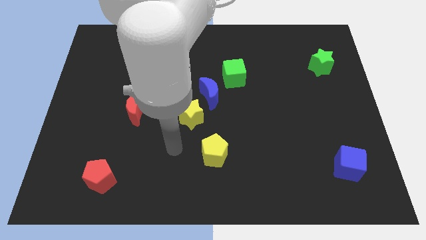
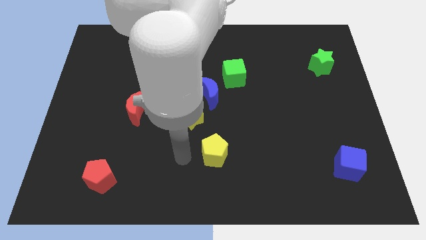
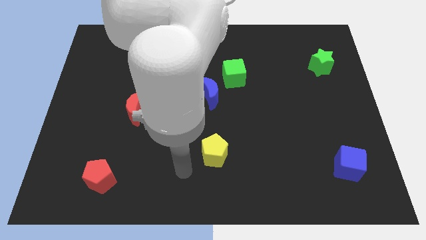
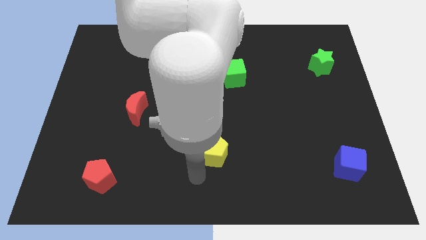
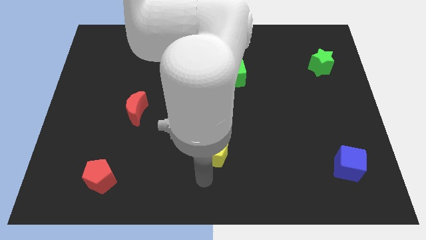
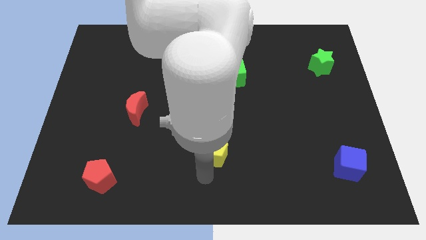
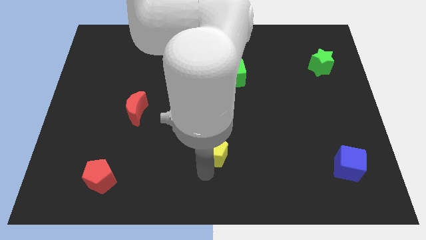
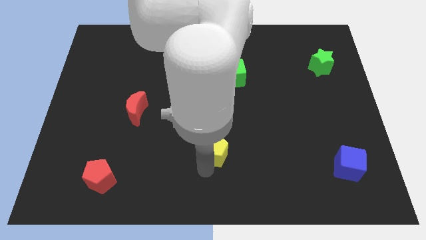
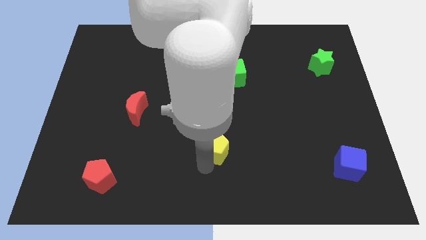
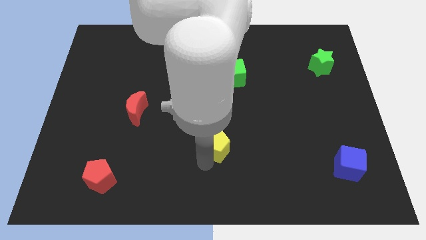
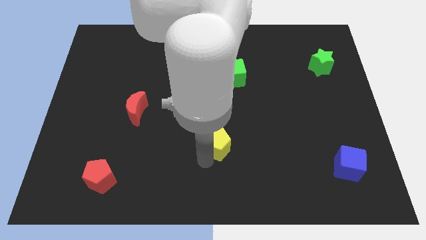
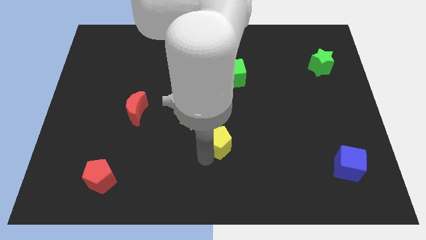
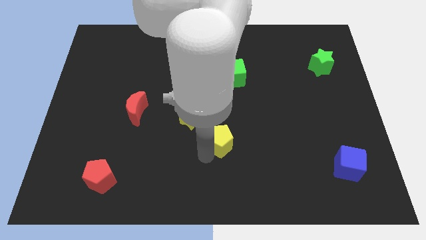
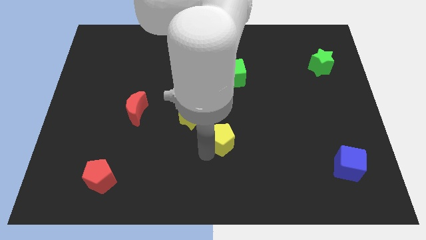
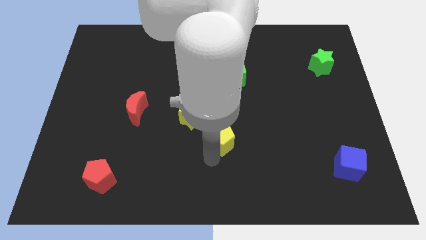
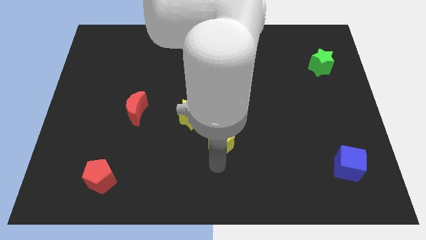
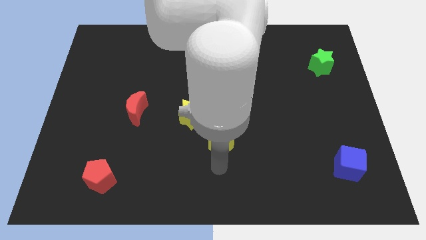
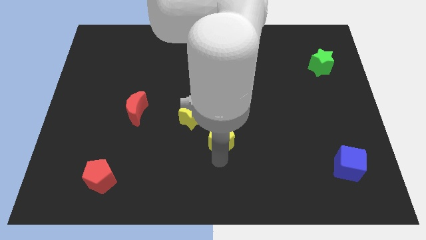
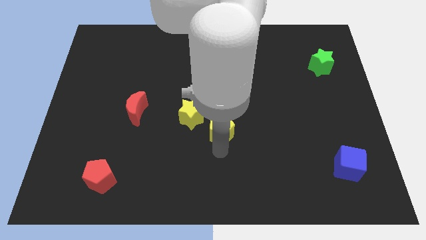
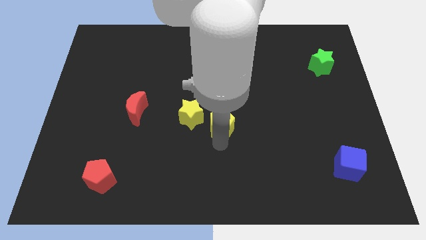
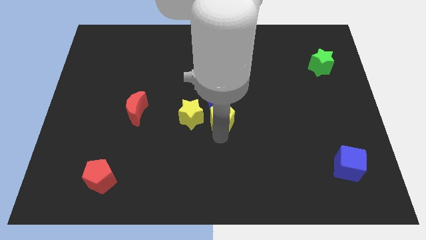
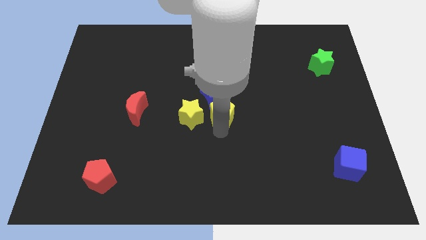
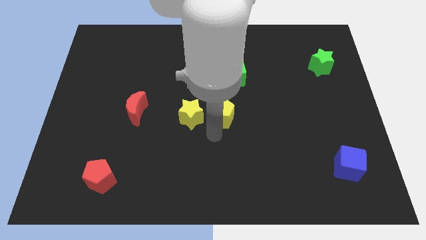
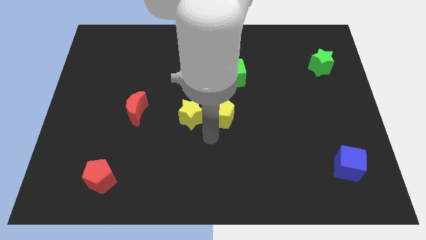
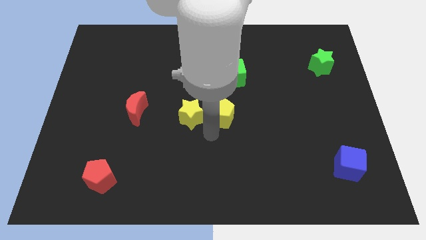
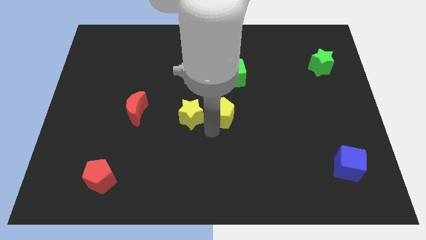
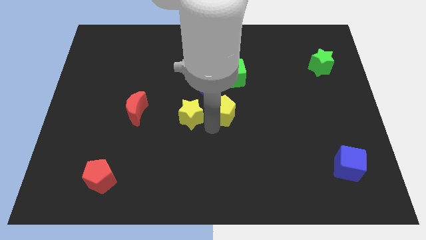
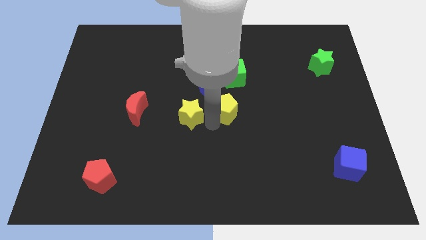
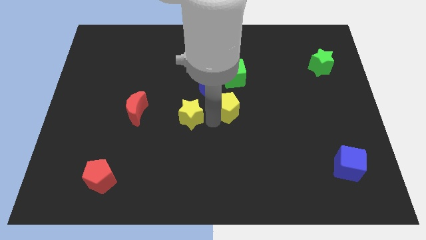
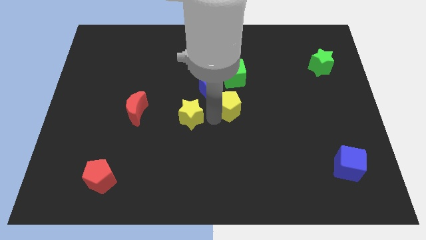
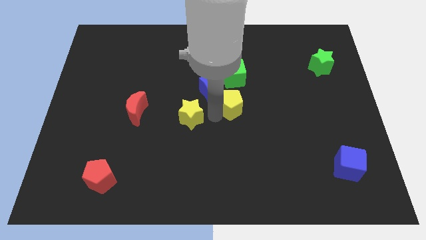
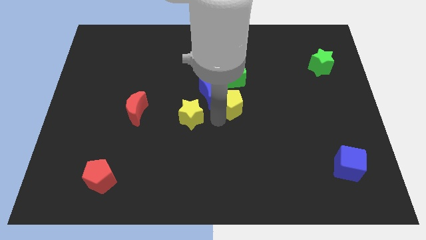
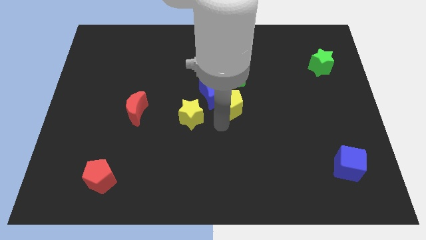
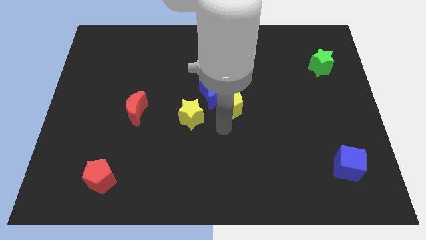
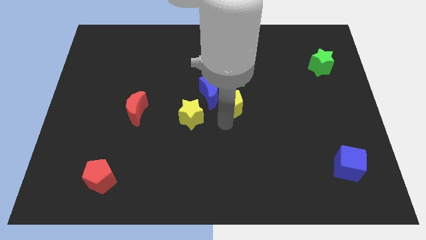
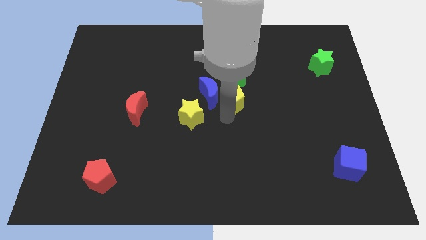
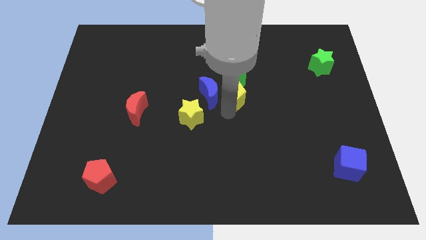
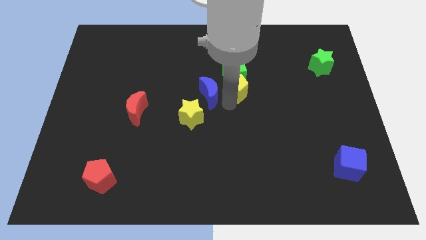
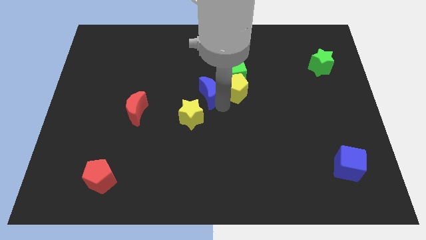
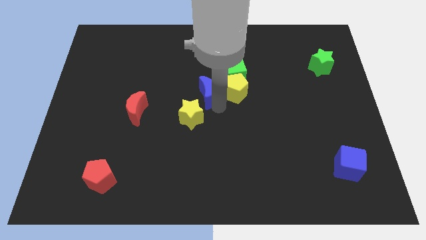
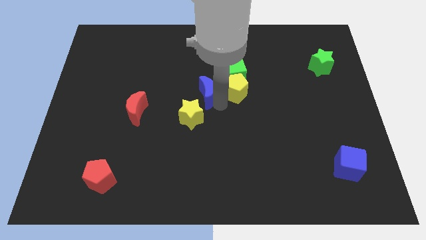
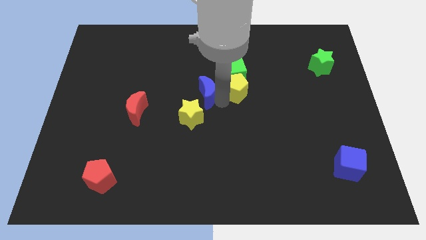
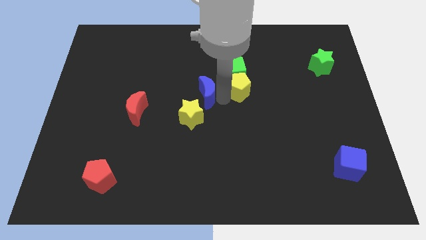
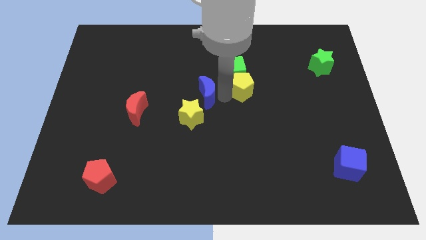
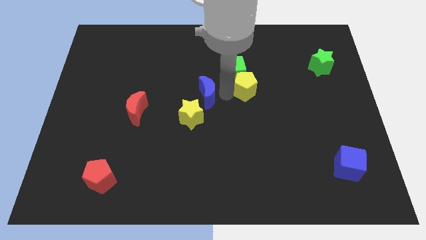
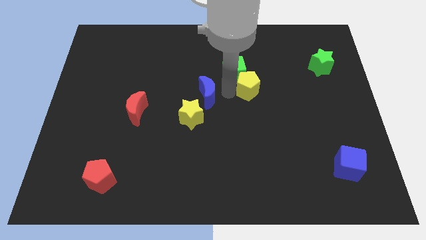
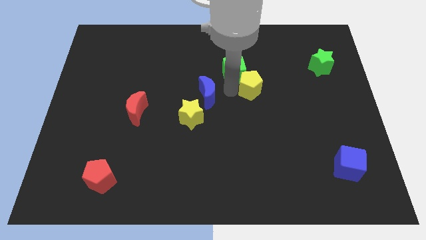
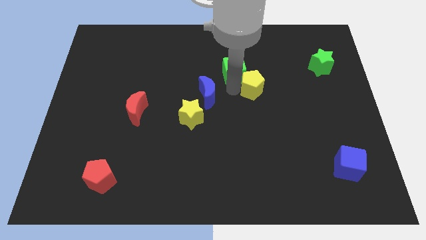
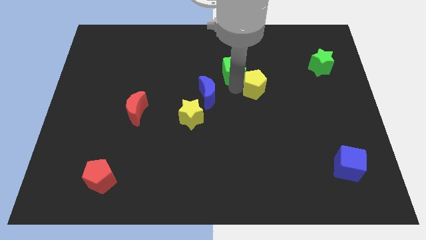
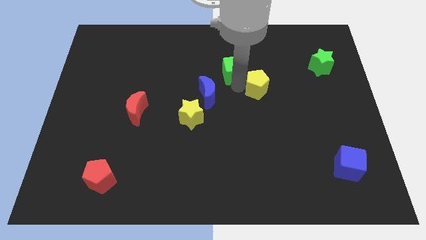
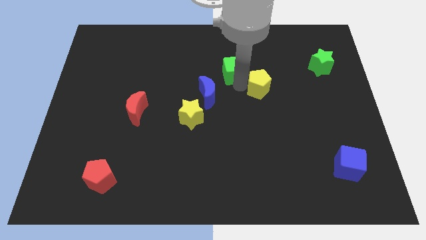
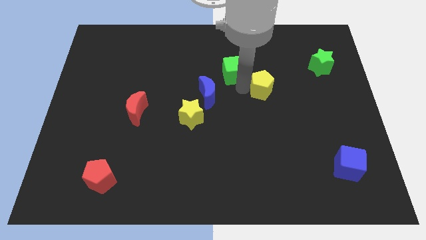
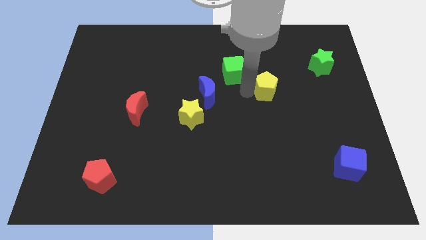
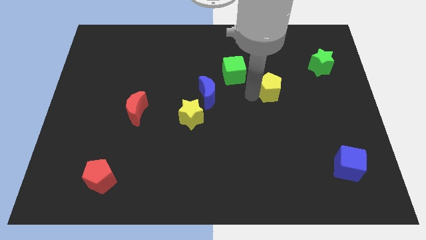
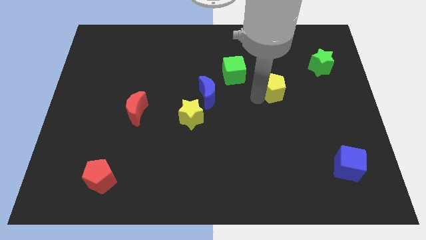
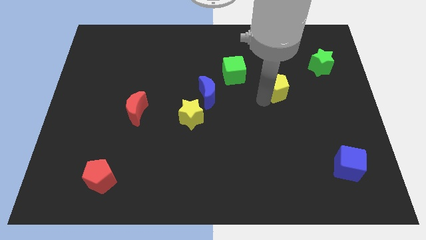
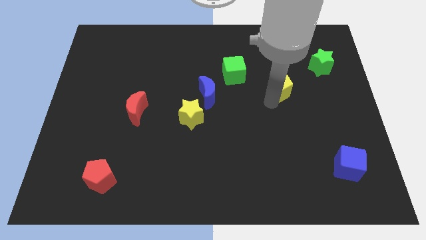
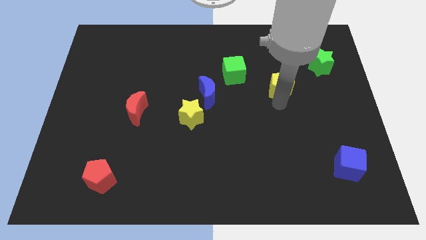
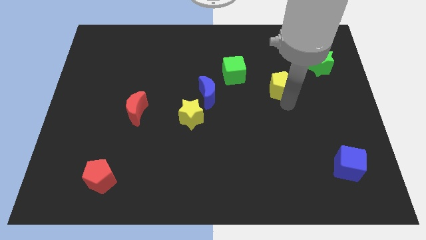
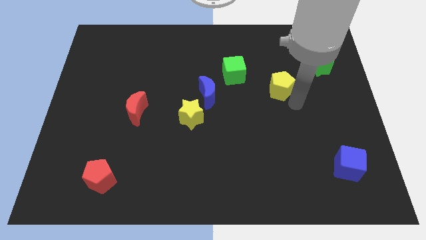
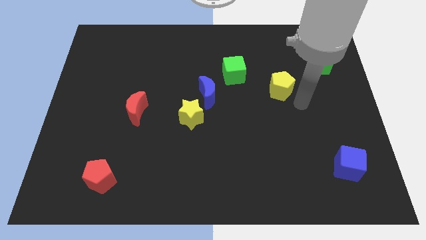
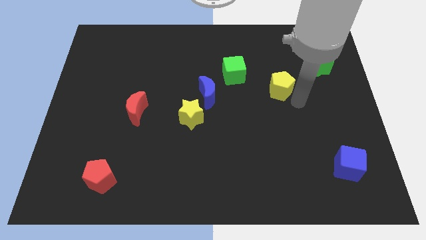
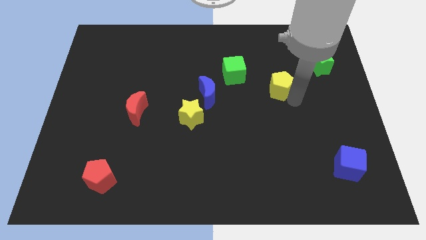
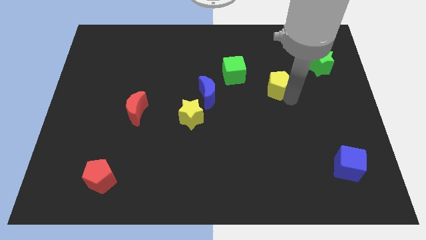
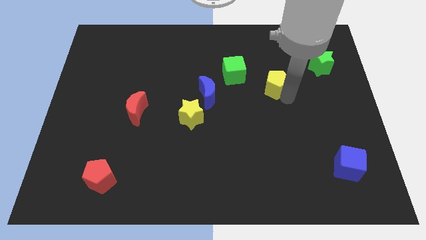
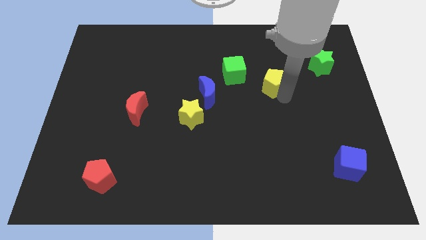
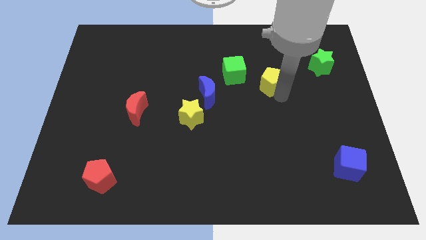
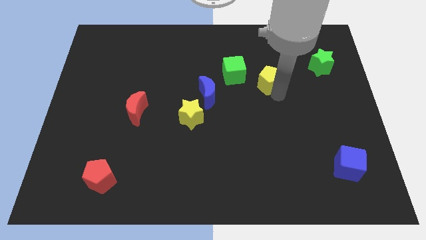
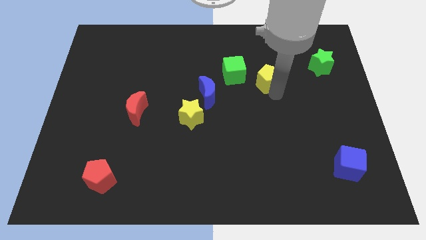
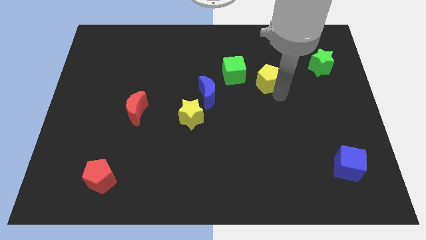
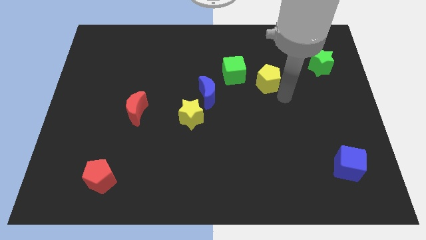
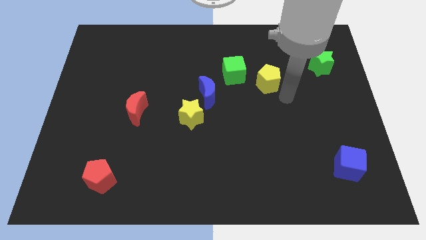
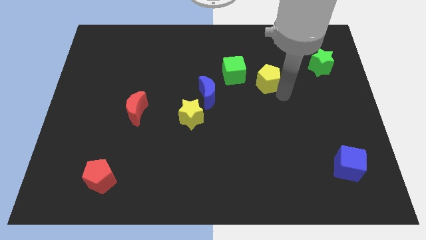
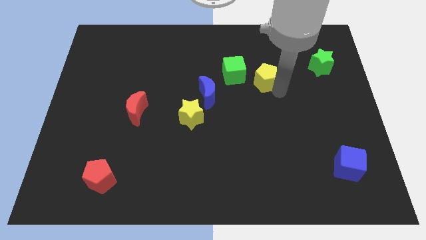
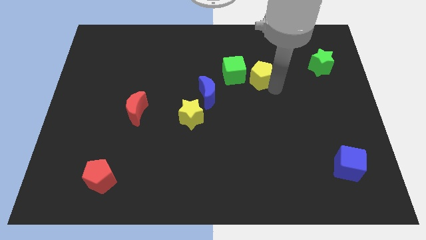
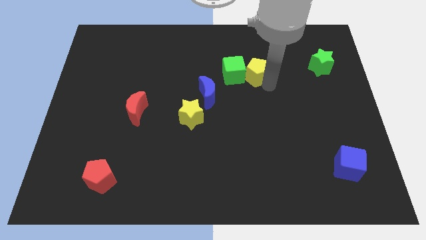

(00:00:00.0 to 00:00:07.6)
push the yellow pentagon diagonally up and to the right of the green cube
